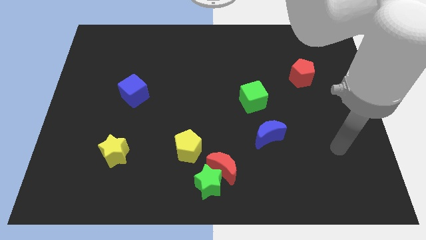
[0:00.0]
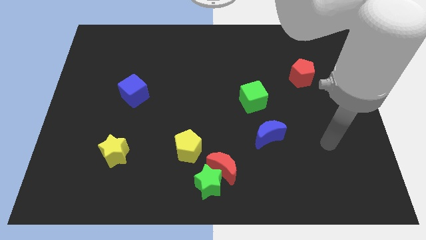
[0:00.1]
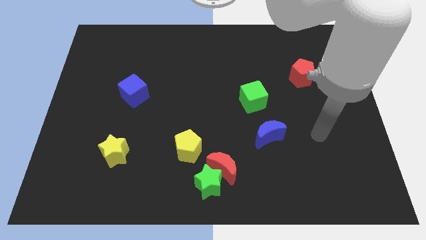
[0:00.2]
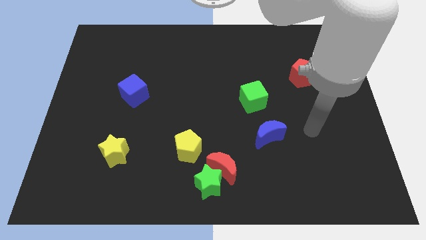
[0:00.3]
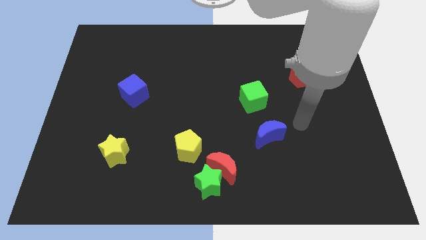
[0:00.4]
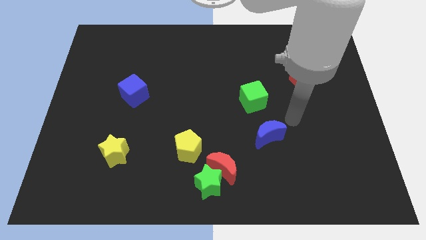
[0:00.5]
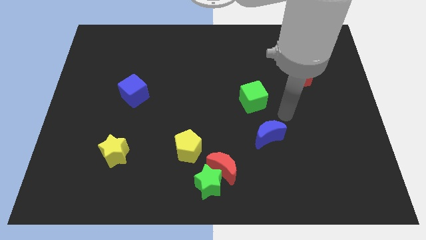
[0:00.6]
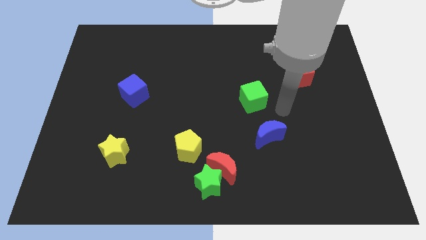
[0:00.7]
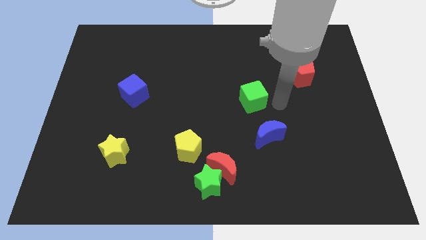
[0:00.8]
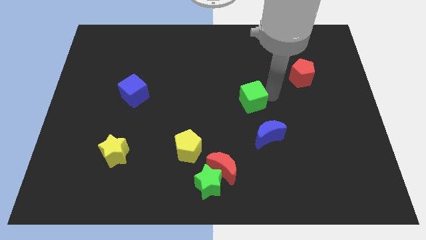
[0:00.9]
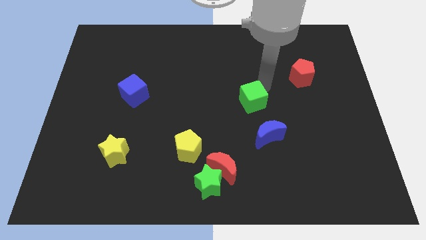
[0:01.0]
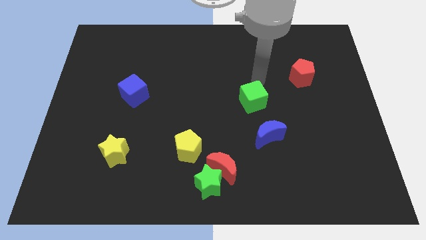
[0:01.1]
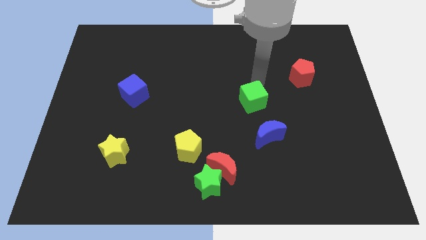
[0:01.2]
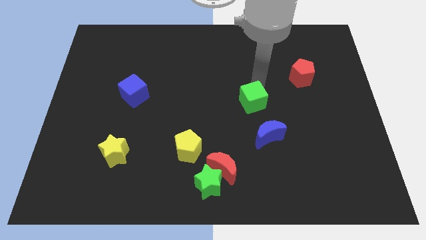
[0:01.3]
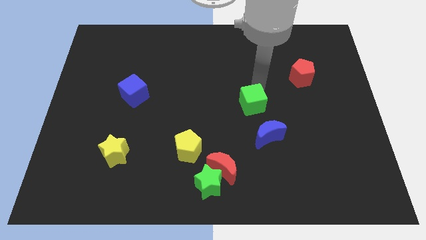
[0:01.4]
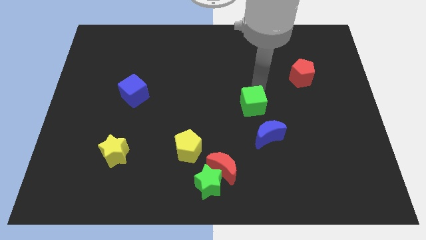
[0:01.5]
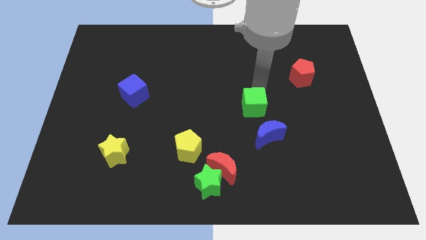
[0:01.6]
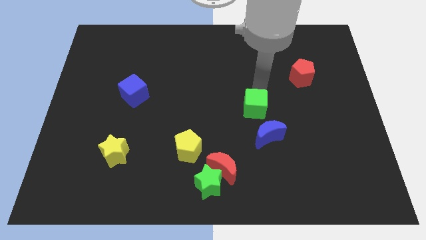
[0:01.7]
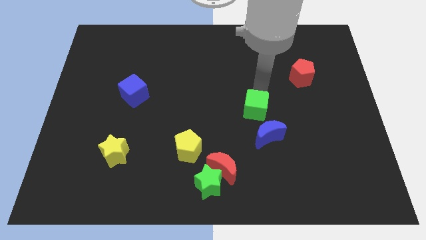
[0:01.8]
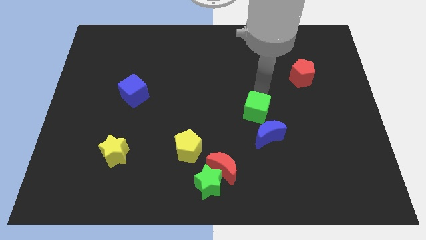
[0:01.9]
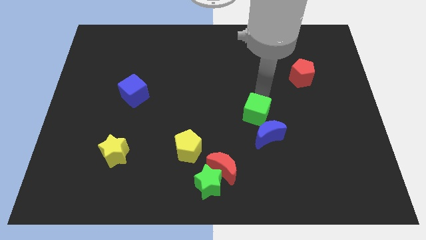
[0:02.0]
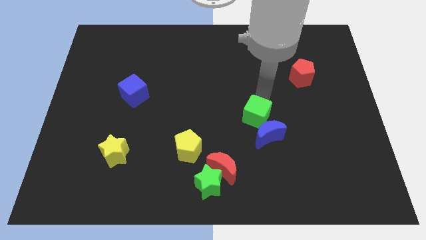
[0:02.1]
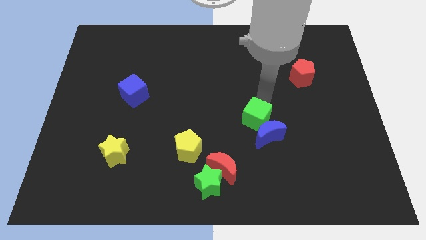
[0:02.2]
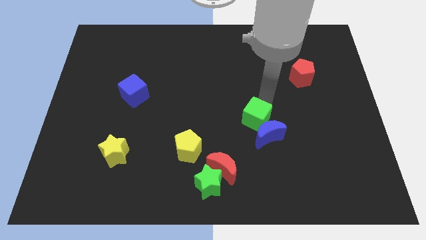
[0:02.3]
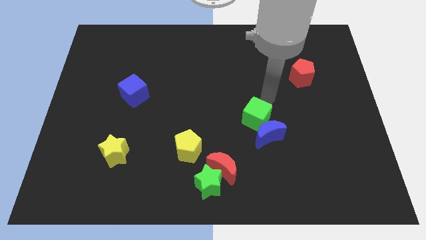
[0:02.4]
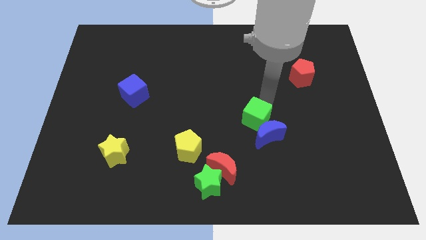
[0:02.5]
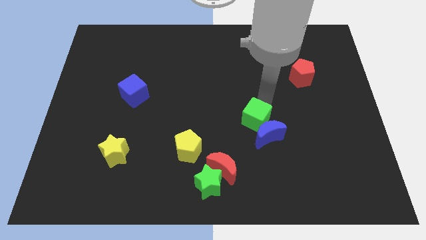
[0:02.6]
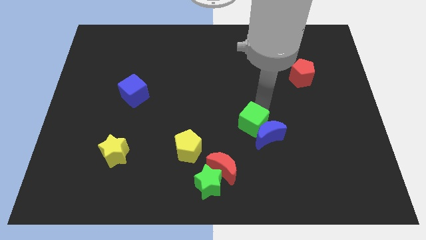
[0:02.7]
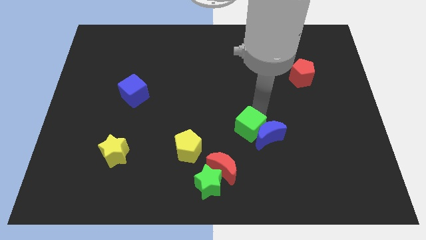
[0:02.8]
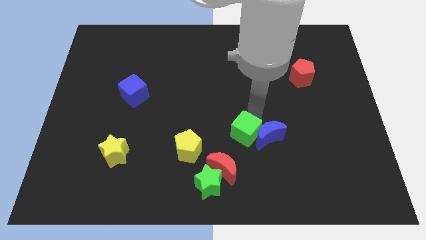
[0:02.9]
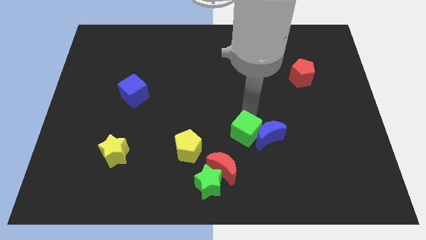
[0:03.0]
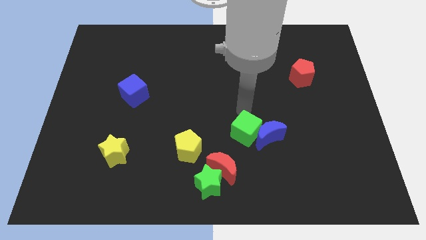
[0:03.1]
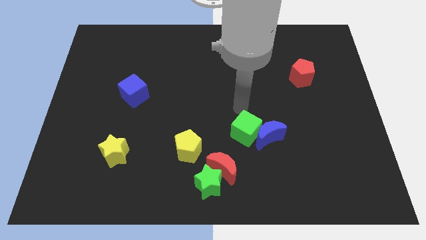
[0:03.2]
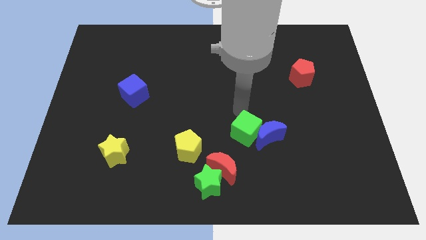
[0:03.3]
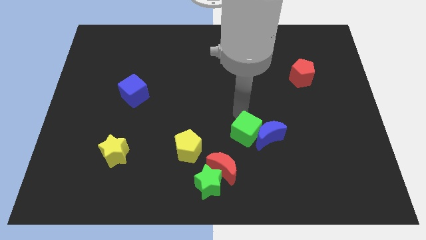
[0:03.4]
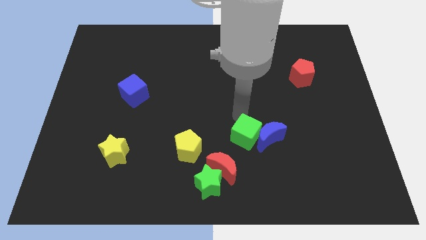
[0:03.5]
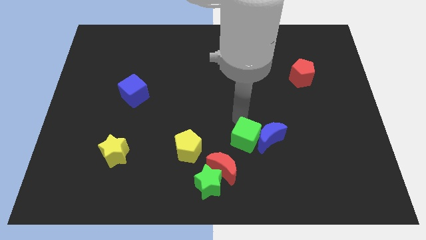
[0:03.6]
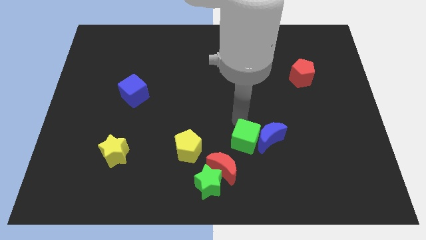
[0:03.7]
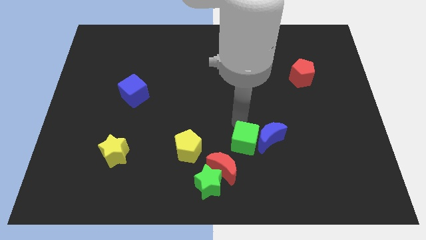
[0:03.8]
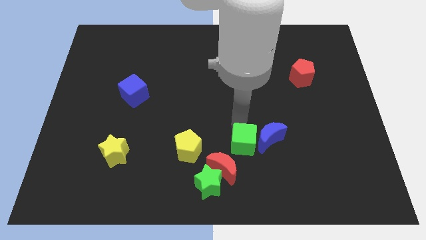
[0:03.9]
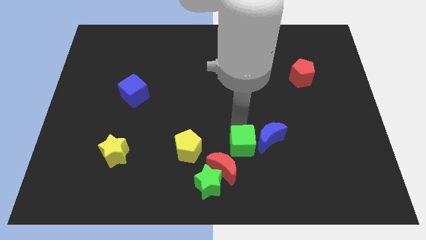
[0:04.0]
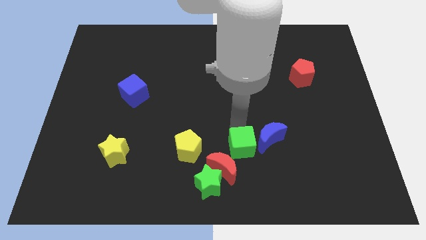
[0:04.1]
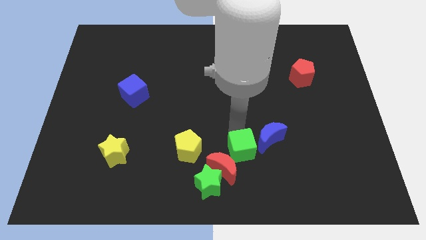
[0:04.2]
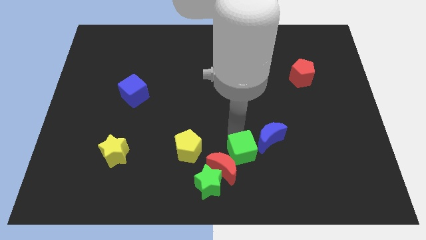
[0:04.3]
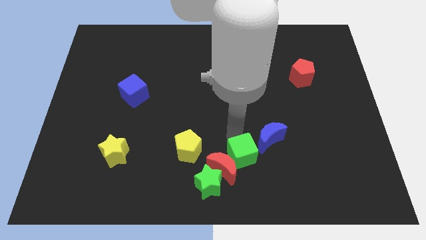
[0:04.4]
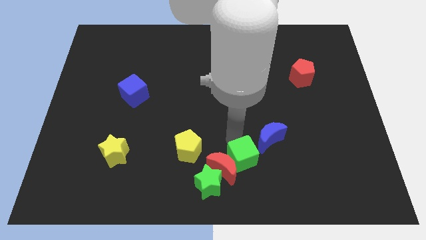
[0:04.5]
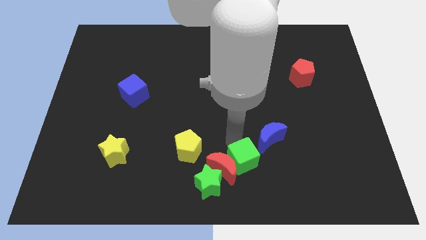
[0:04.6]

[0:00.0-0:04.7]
push the green cube to the bottom

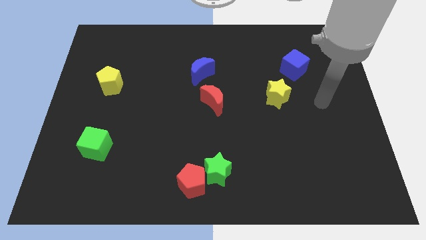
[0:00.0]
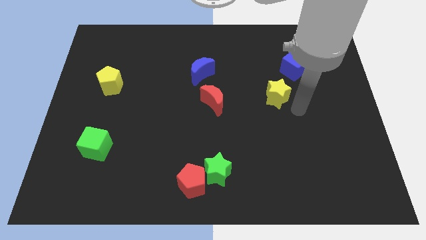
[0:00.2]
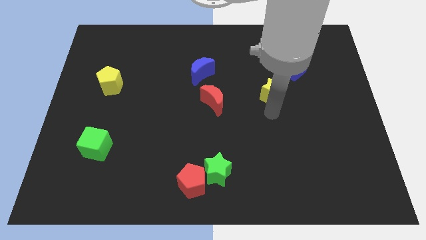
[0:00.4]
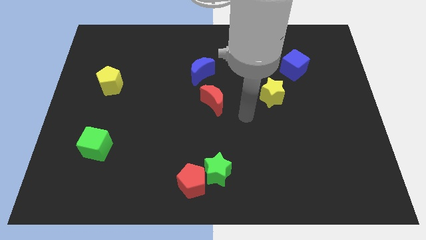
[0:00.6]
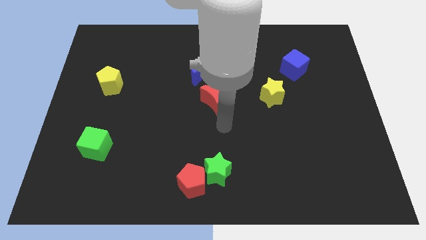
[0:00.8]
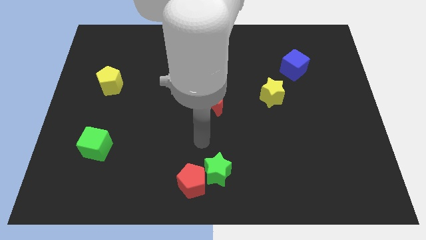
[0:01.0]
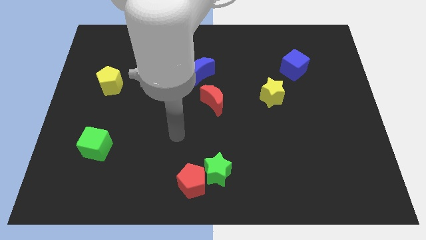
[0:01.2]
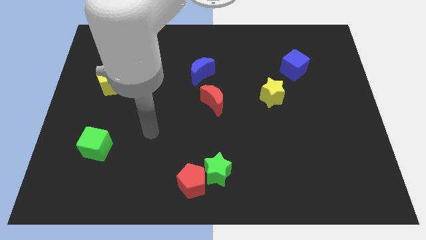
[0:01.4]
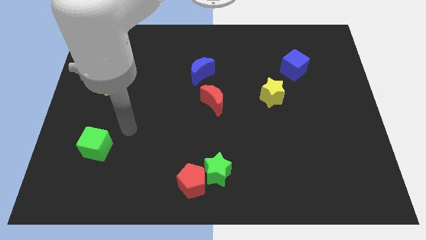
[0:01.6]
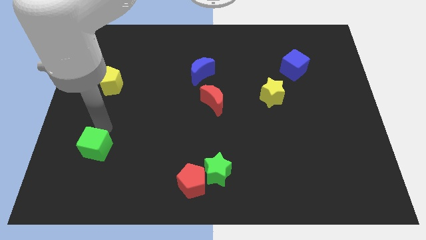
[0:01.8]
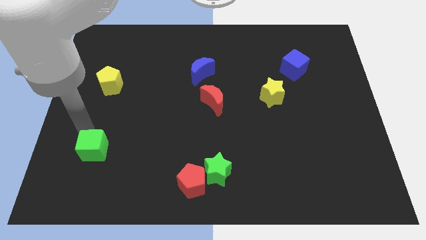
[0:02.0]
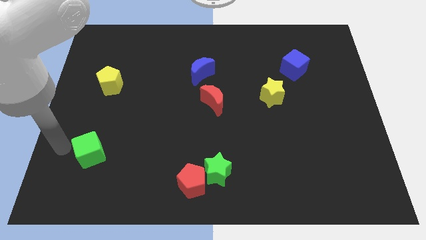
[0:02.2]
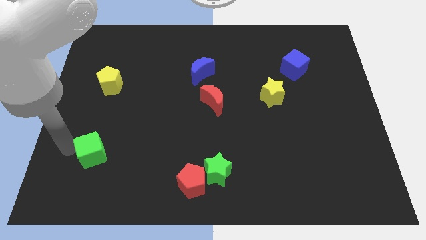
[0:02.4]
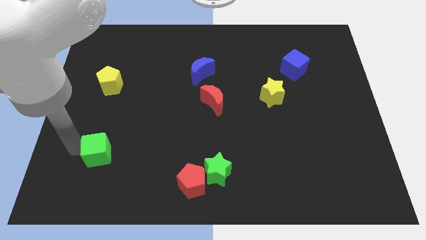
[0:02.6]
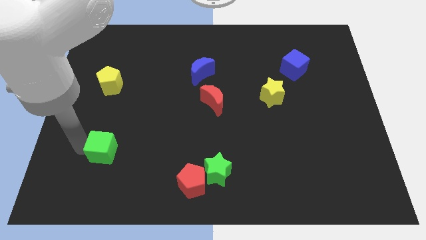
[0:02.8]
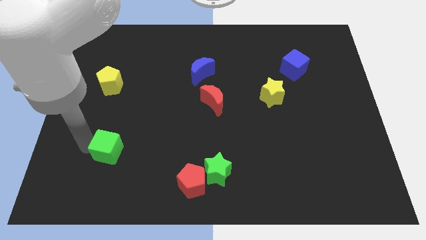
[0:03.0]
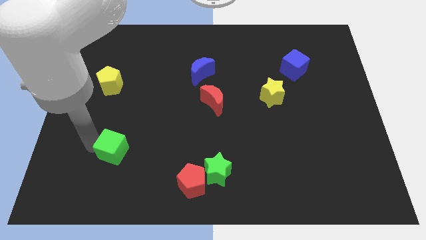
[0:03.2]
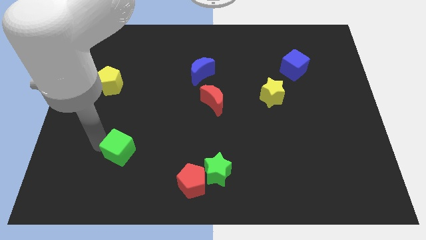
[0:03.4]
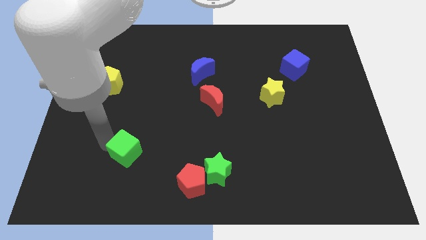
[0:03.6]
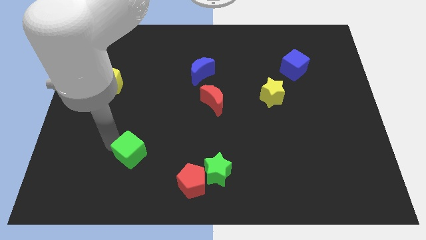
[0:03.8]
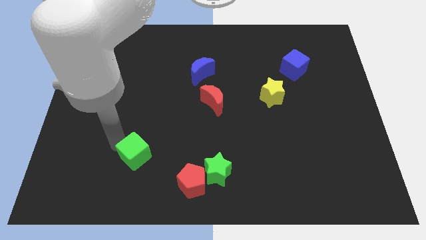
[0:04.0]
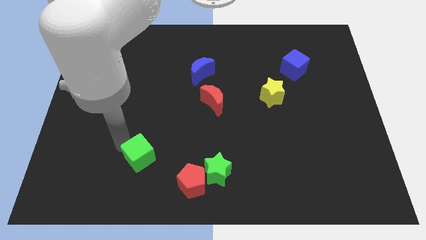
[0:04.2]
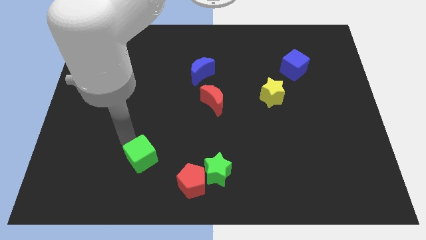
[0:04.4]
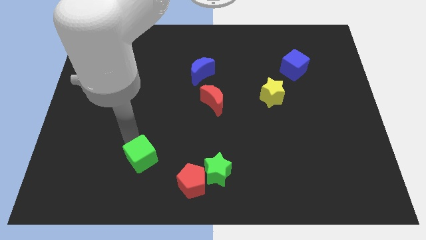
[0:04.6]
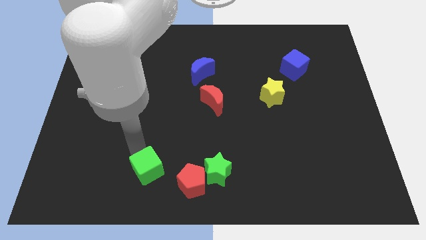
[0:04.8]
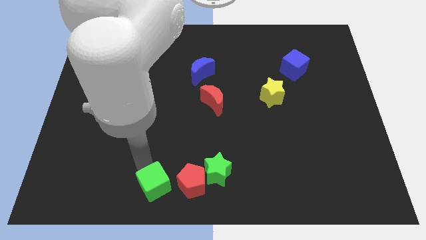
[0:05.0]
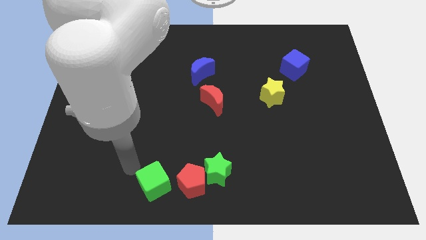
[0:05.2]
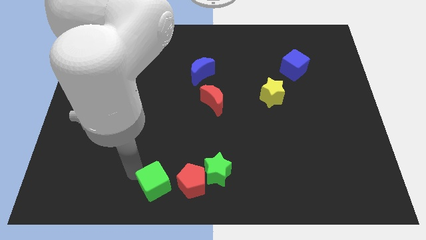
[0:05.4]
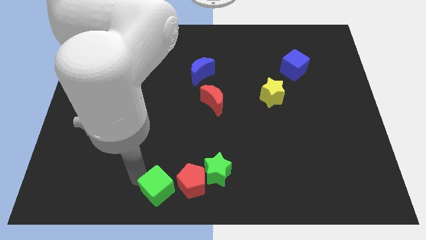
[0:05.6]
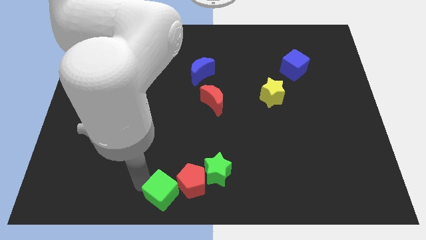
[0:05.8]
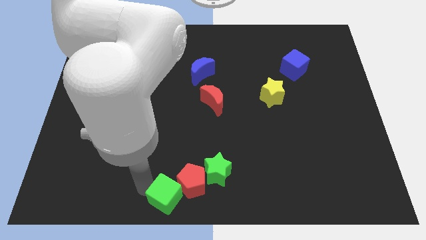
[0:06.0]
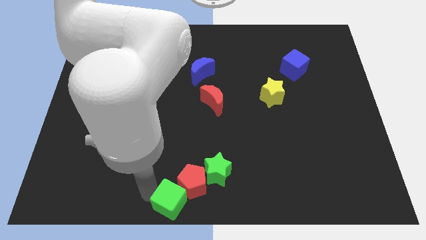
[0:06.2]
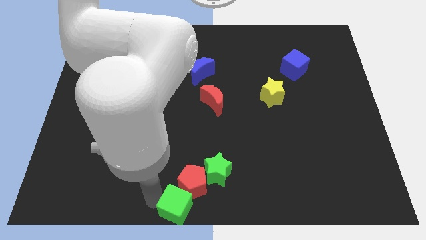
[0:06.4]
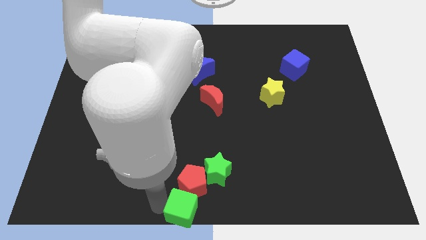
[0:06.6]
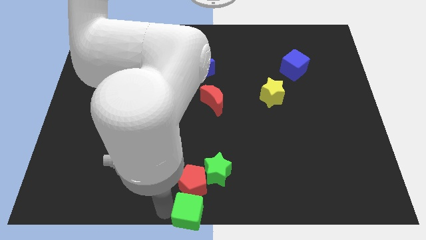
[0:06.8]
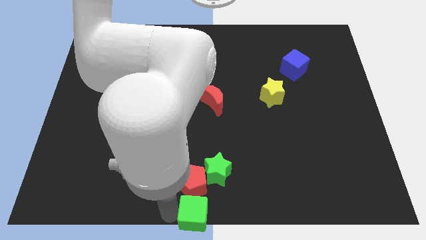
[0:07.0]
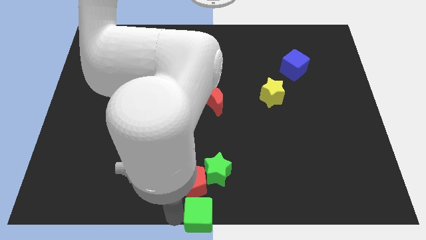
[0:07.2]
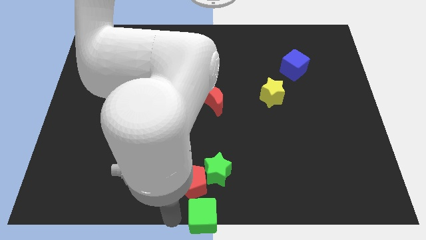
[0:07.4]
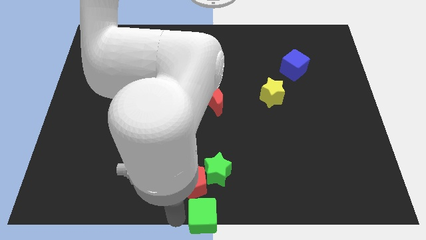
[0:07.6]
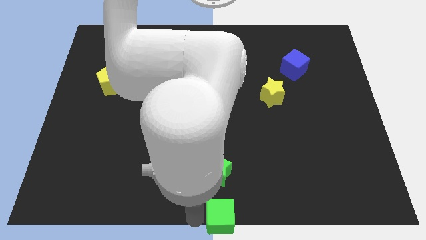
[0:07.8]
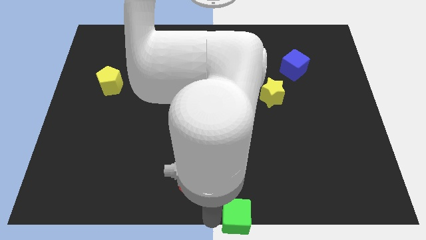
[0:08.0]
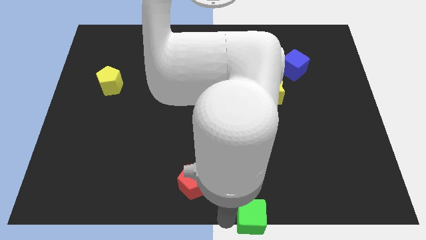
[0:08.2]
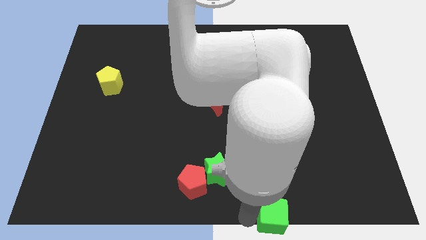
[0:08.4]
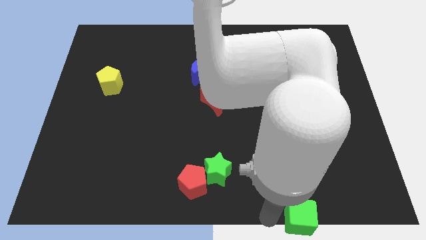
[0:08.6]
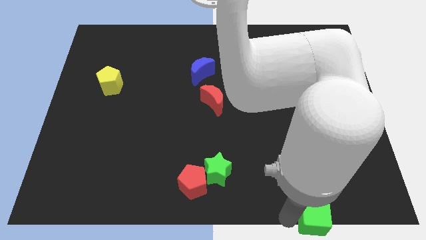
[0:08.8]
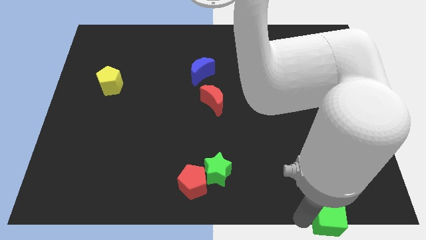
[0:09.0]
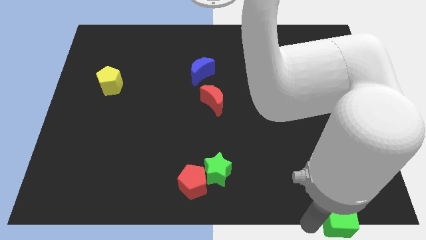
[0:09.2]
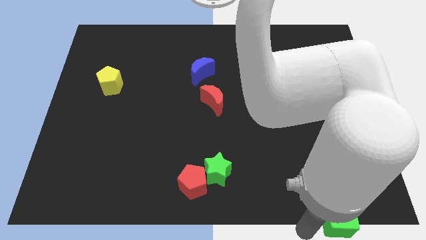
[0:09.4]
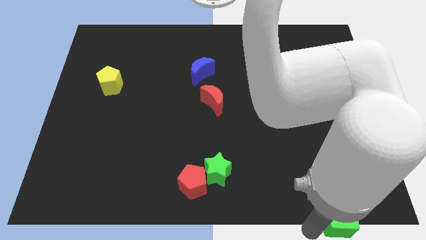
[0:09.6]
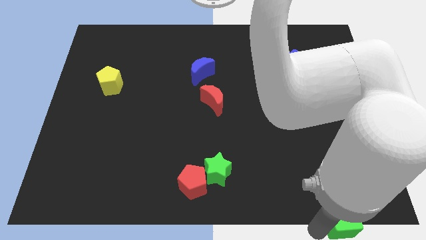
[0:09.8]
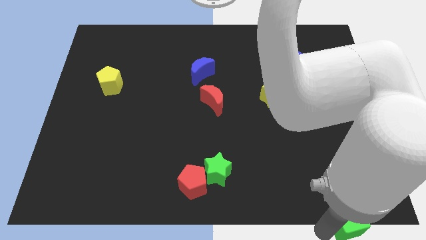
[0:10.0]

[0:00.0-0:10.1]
slide the green cube to the lower right corner
